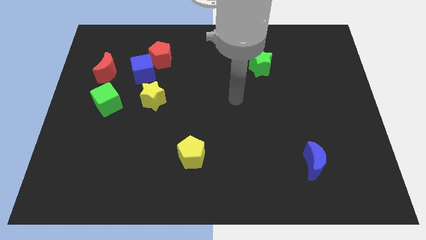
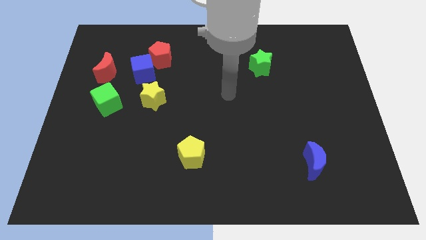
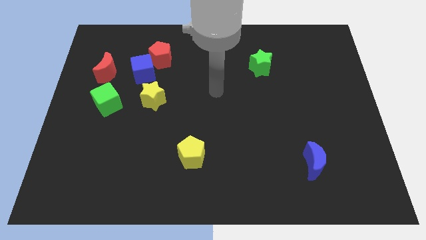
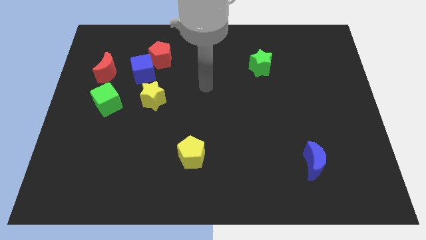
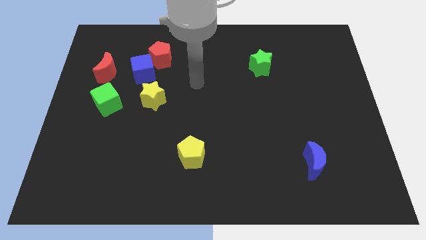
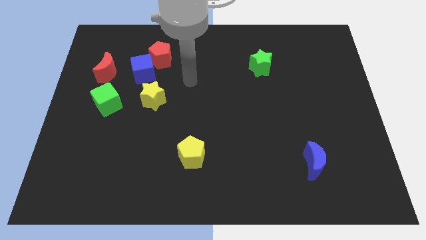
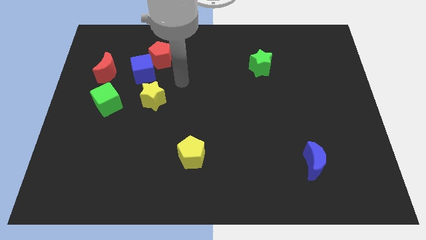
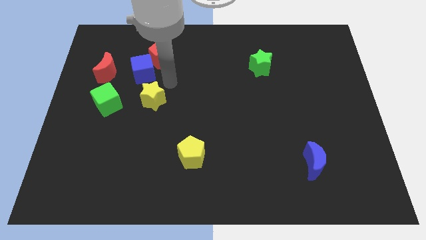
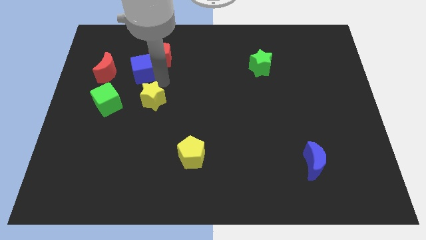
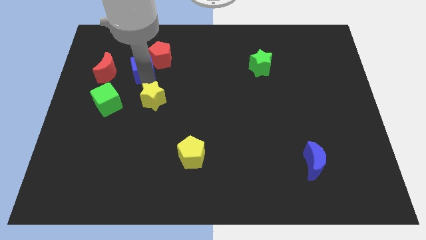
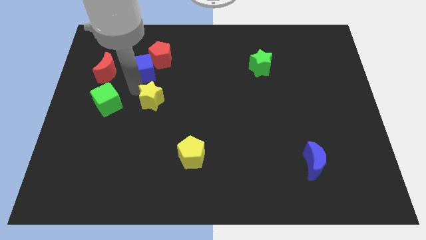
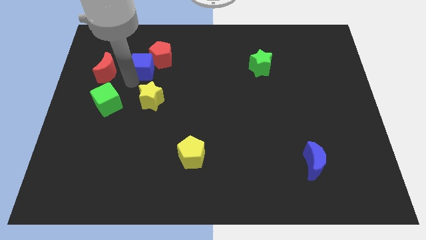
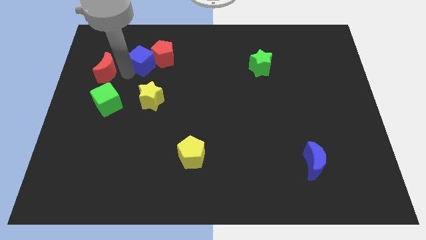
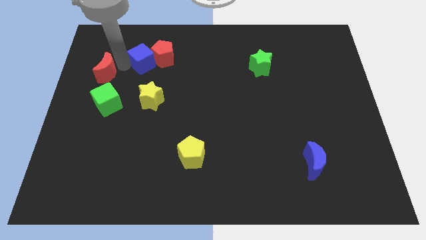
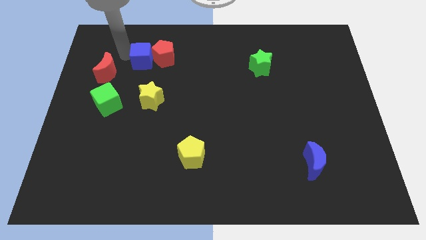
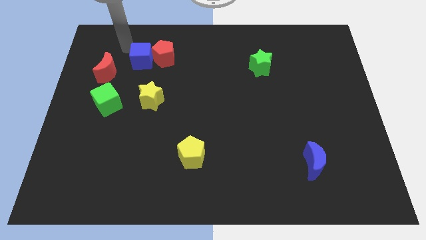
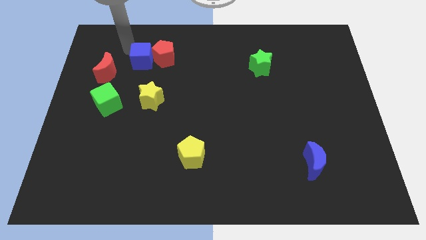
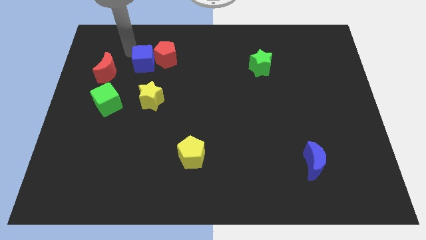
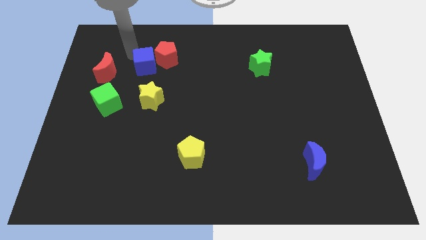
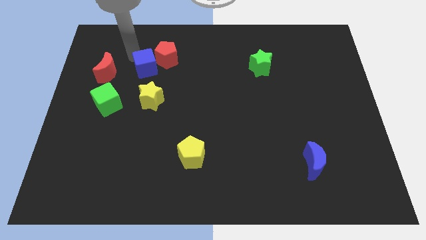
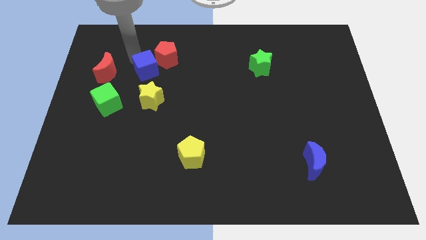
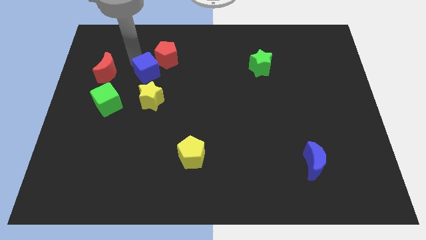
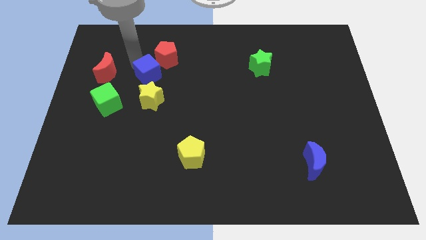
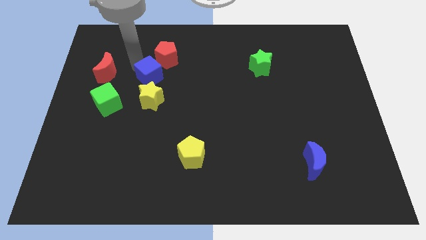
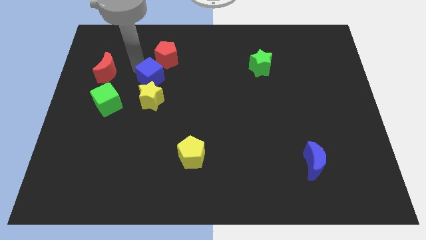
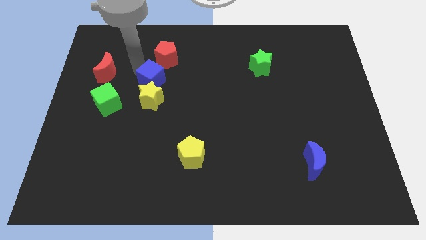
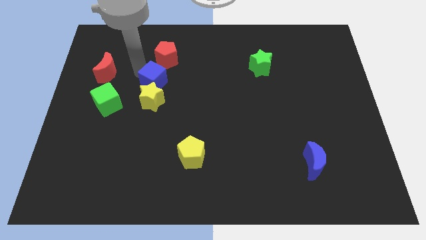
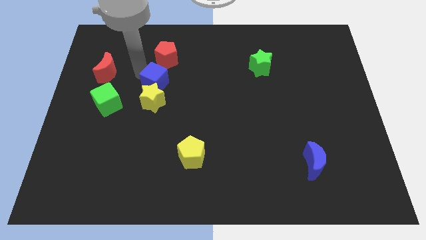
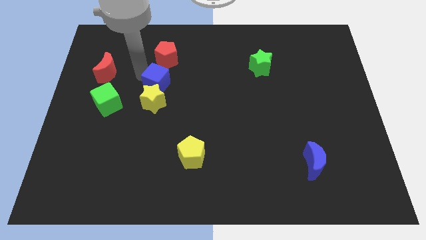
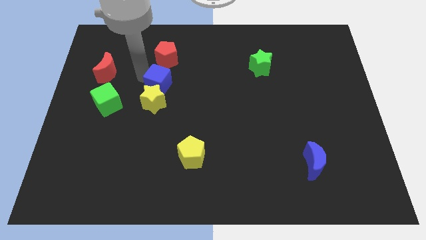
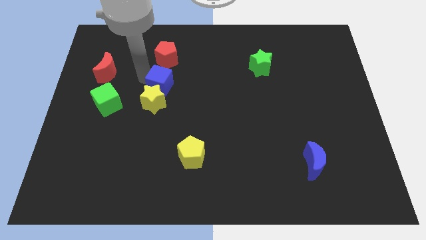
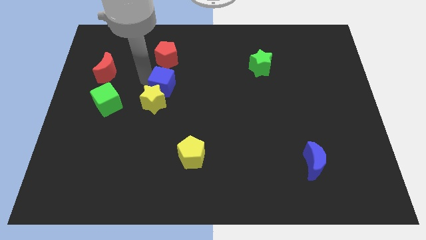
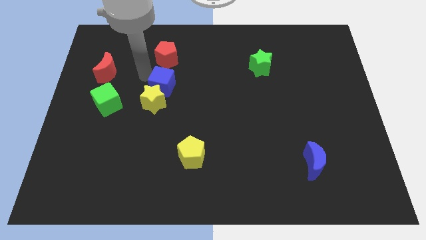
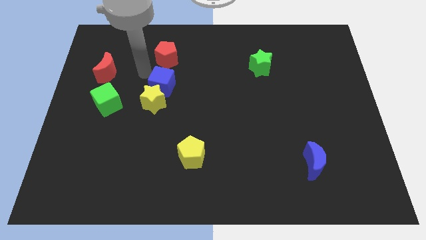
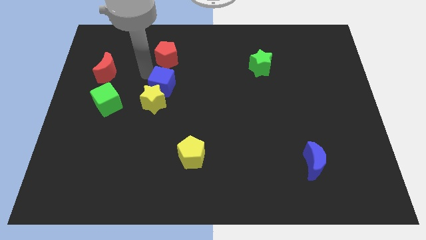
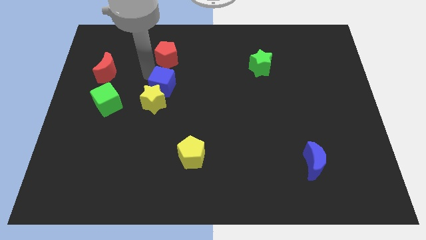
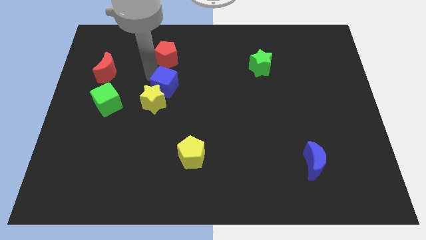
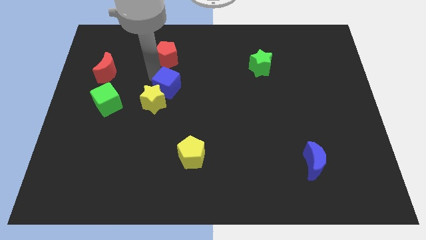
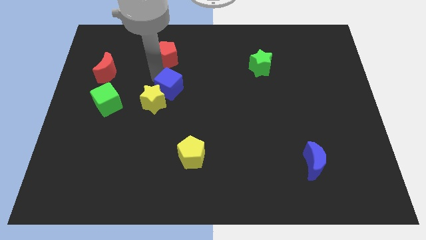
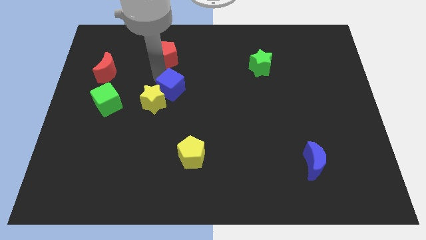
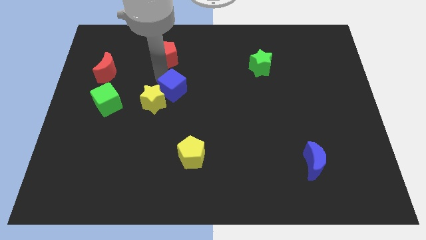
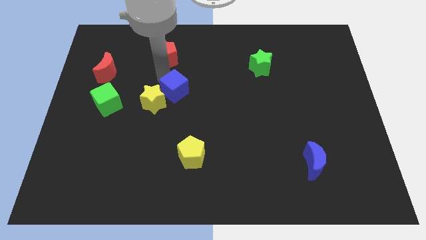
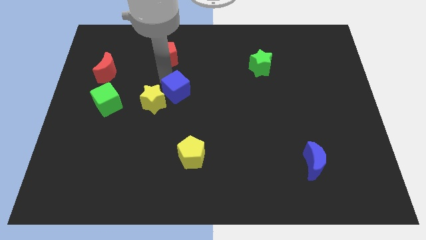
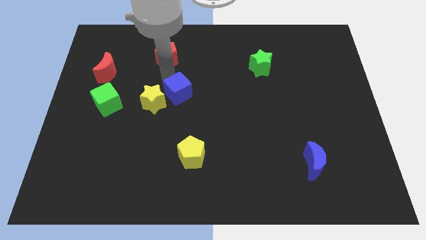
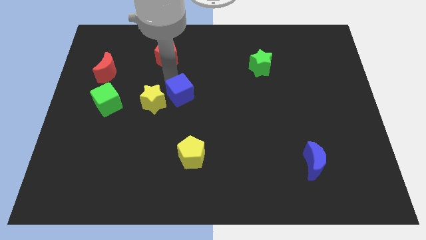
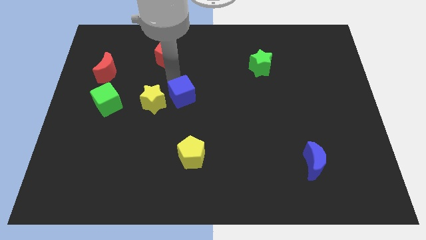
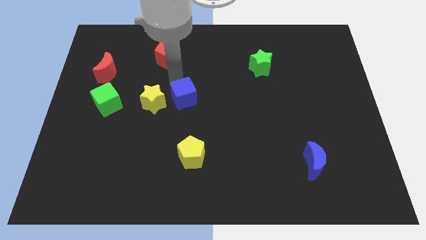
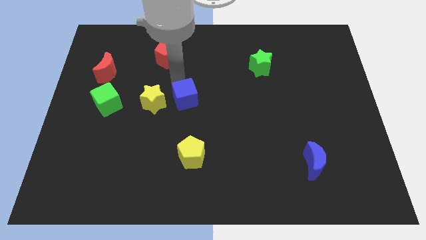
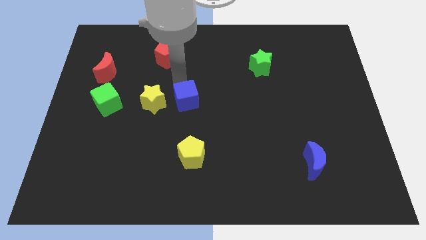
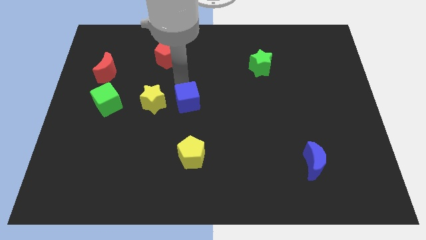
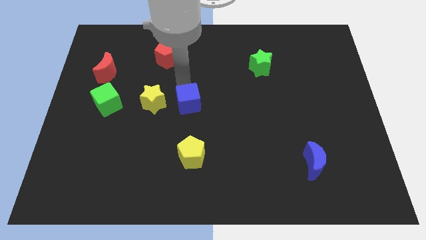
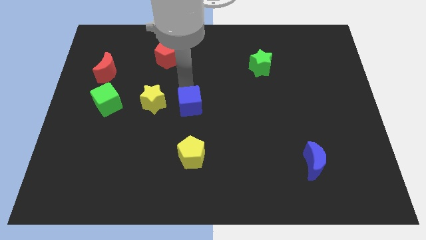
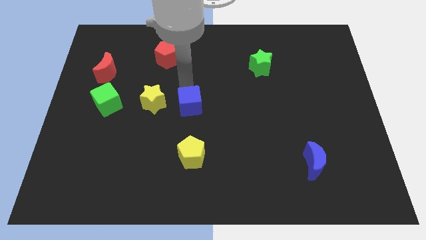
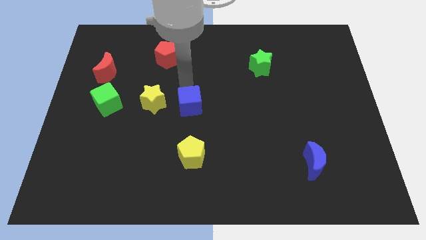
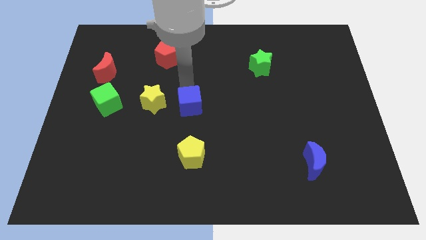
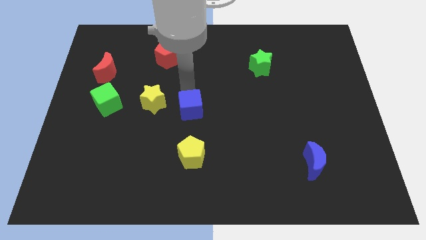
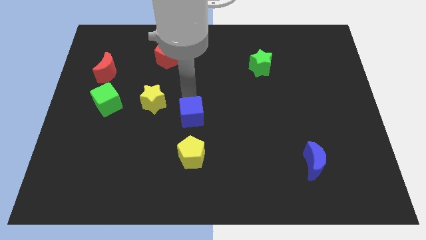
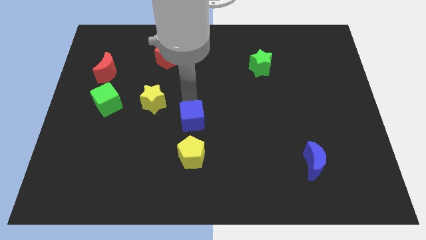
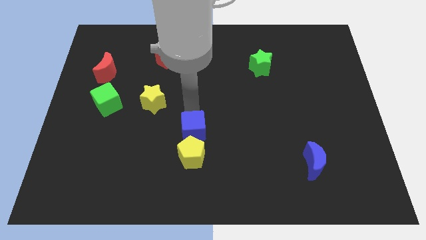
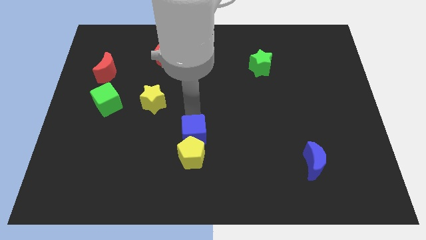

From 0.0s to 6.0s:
slide the blue cube towards the yellow pentagon

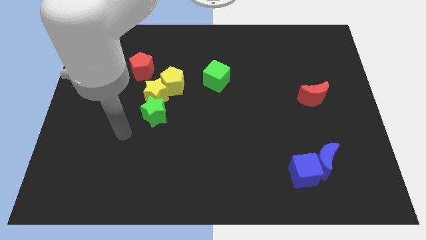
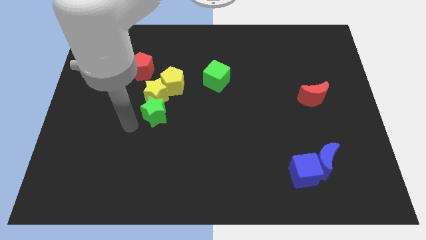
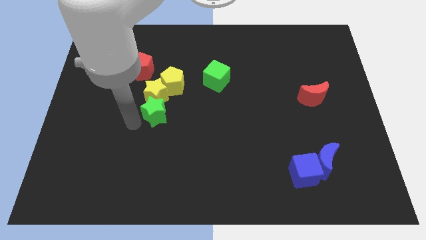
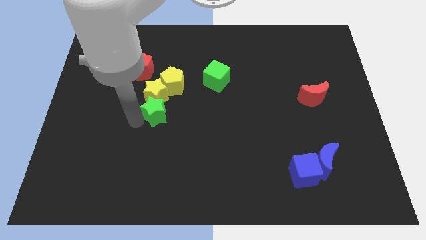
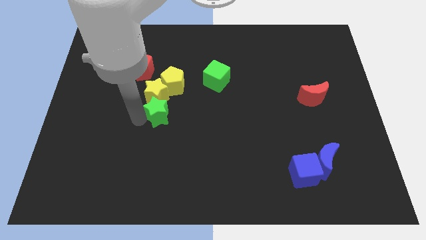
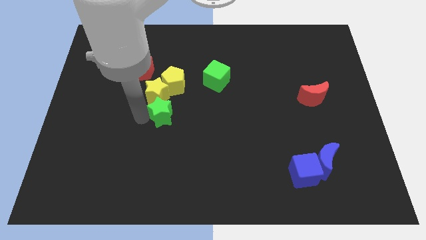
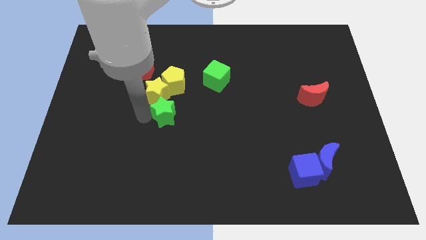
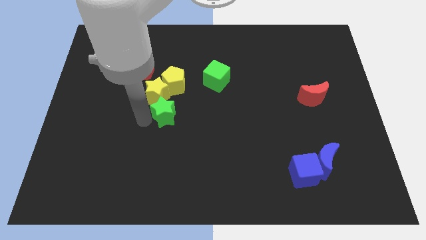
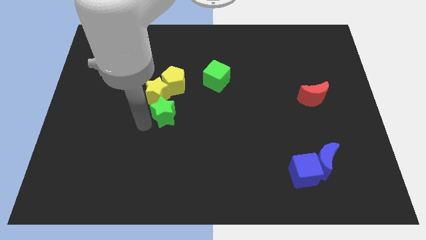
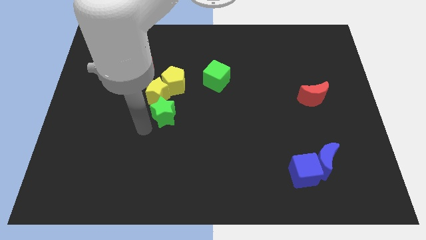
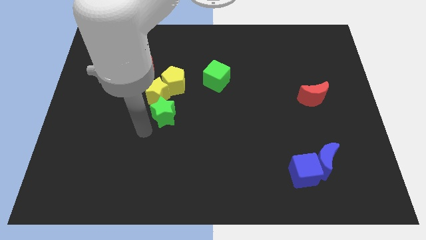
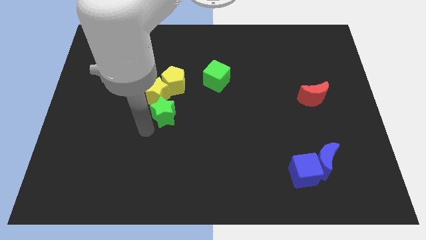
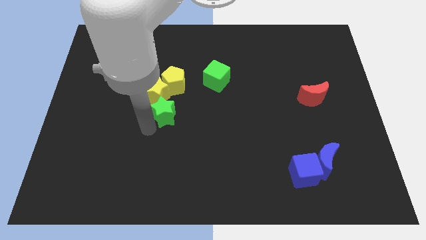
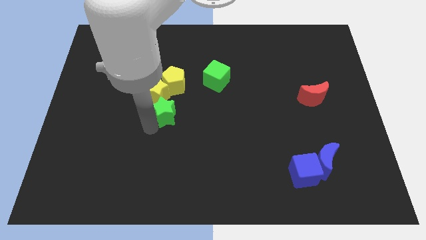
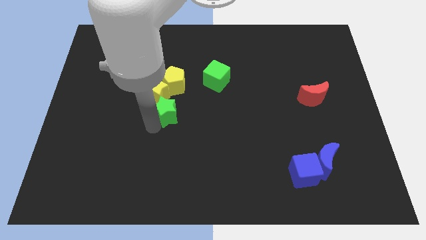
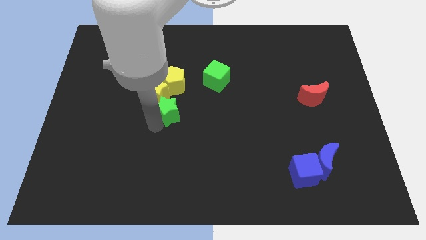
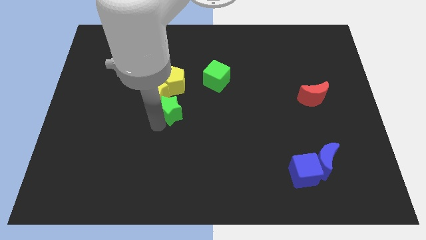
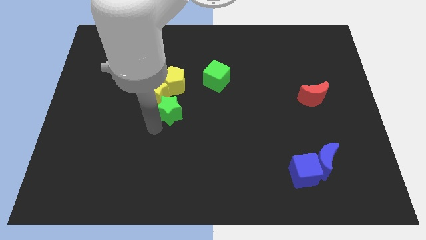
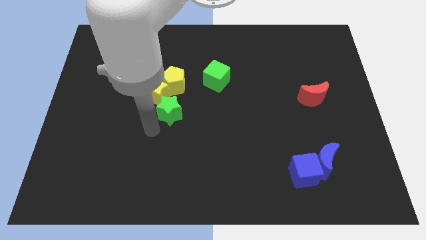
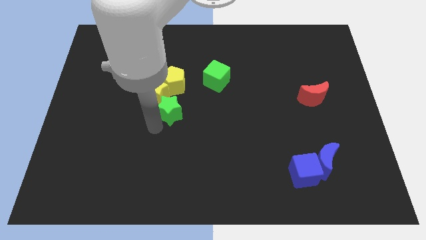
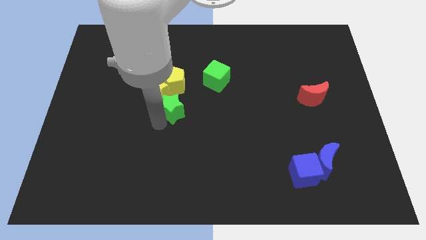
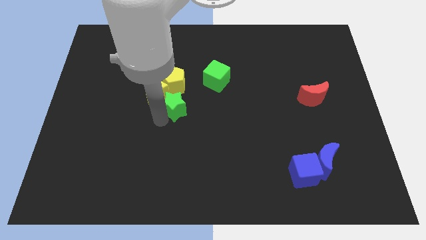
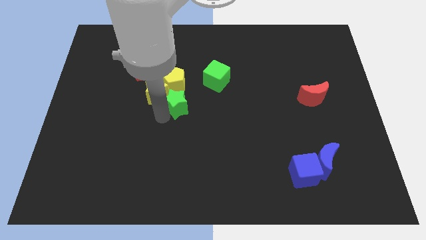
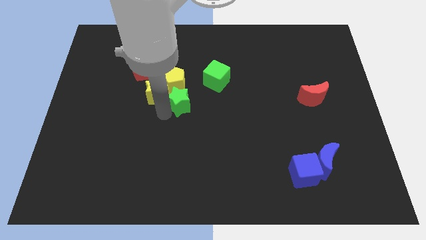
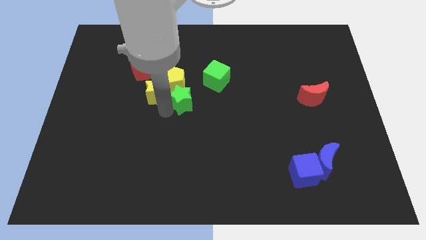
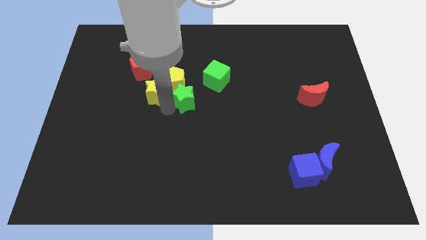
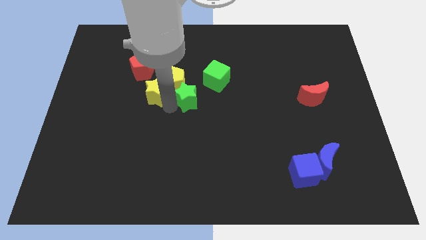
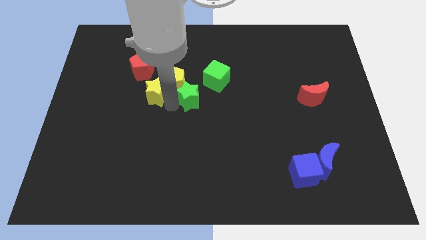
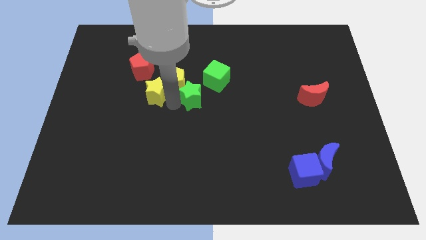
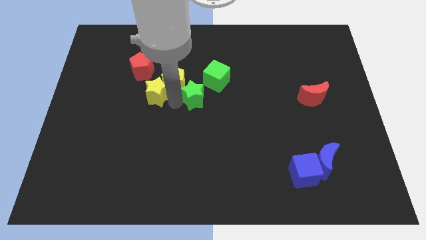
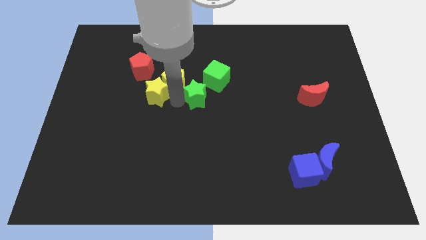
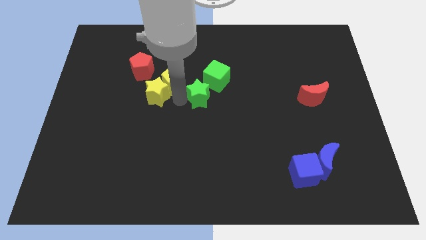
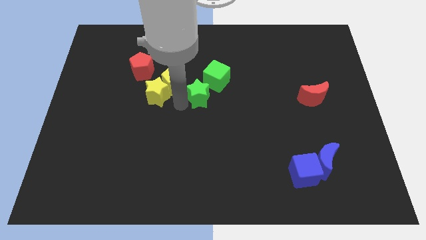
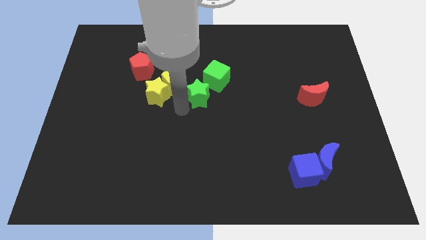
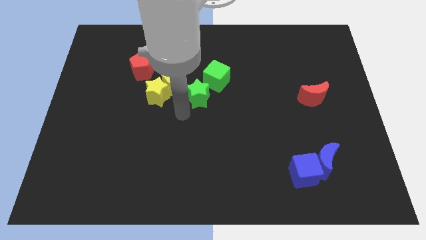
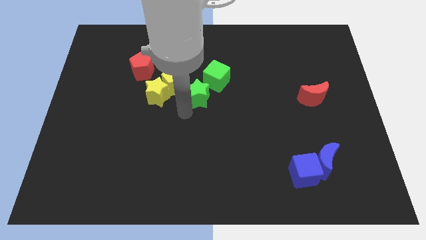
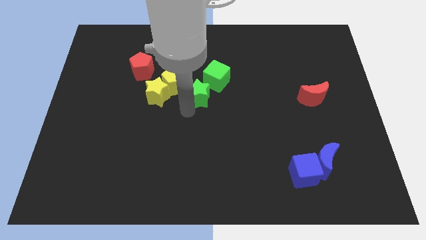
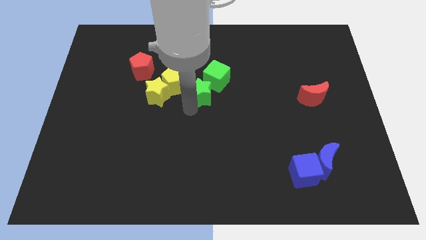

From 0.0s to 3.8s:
slide the green star close to the green cube
